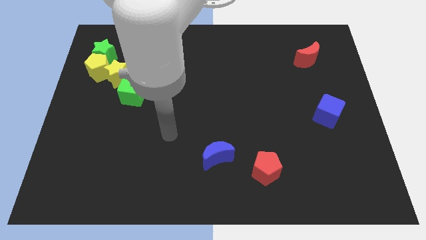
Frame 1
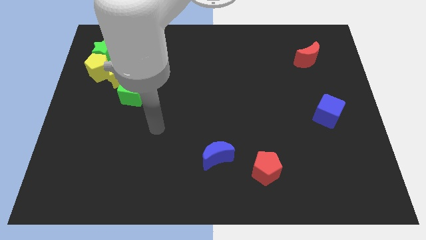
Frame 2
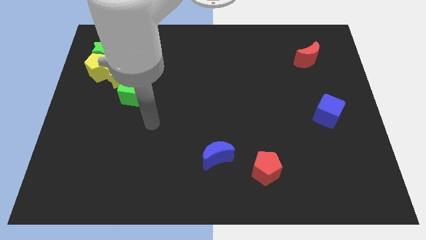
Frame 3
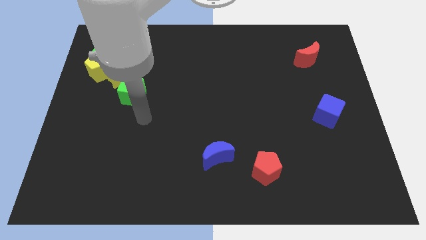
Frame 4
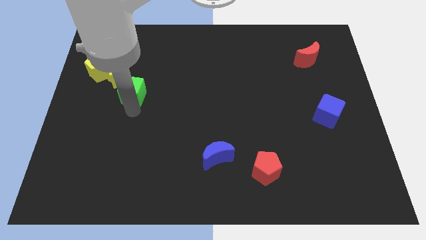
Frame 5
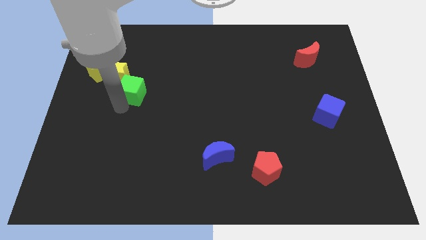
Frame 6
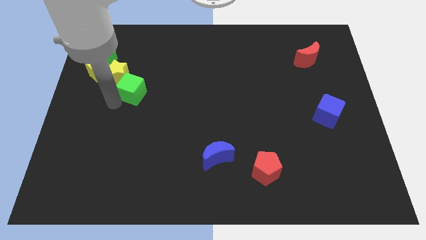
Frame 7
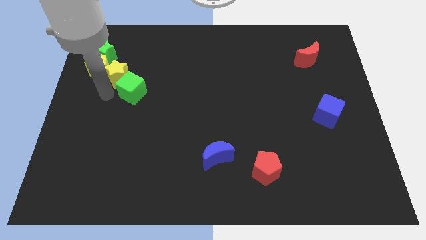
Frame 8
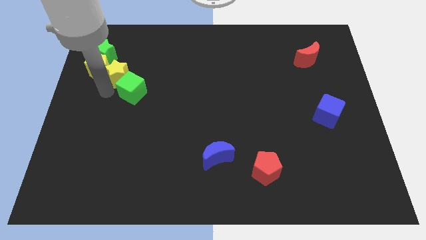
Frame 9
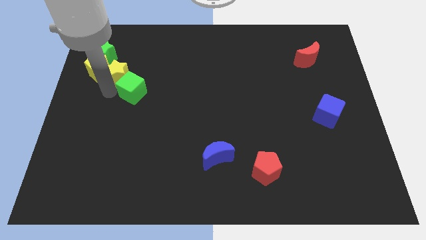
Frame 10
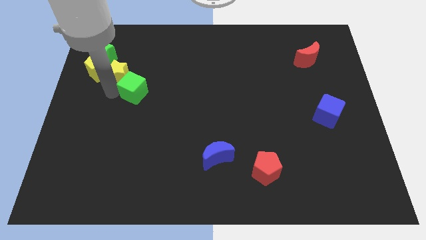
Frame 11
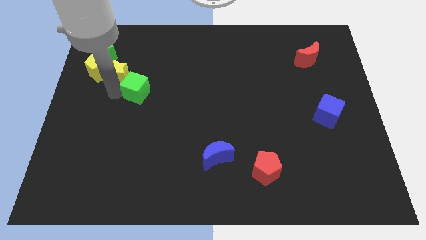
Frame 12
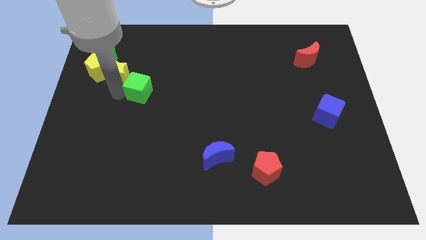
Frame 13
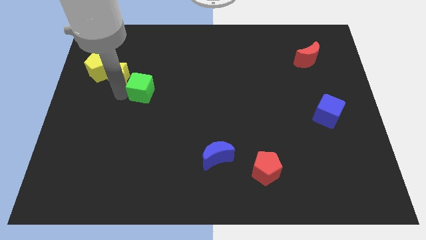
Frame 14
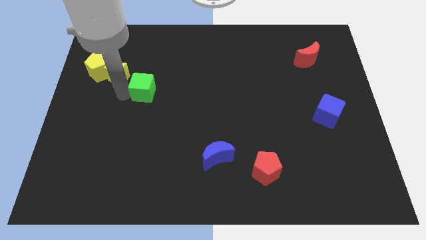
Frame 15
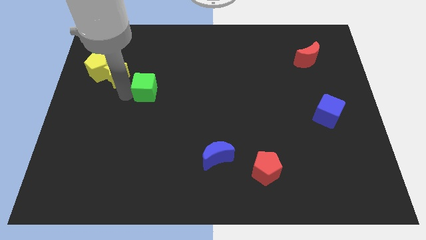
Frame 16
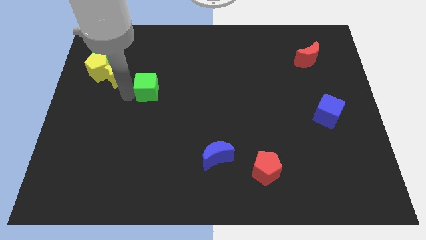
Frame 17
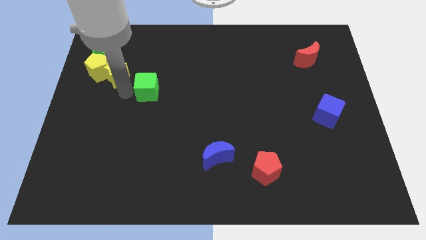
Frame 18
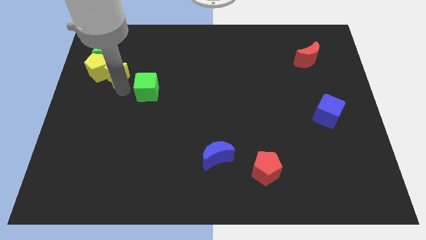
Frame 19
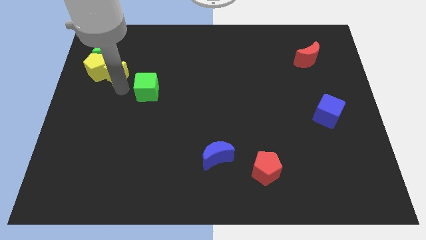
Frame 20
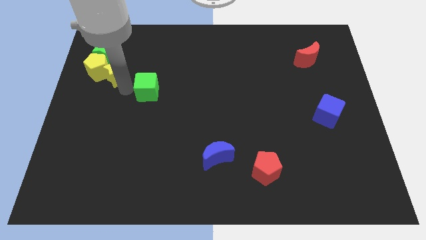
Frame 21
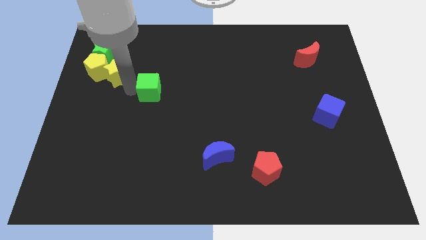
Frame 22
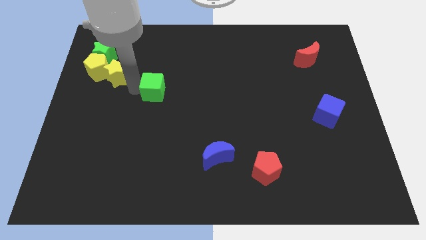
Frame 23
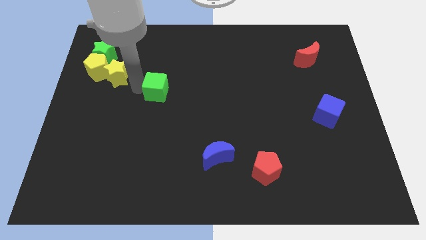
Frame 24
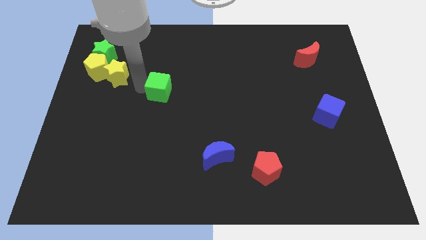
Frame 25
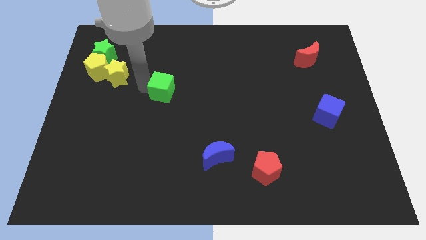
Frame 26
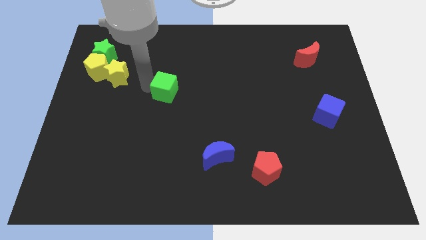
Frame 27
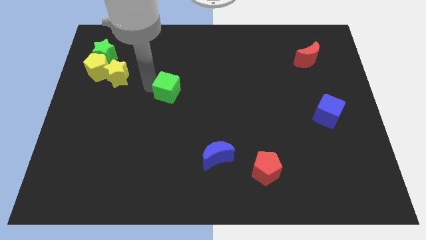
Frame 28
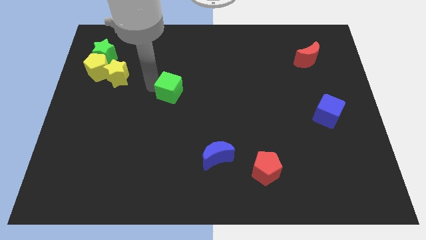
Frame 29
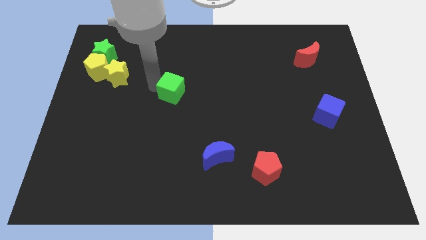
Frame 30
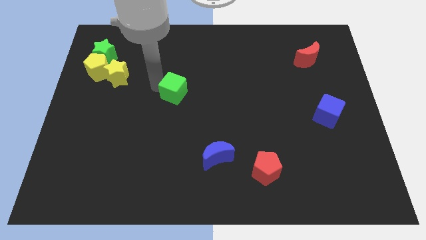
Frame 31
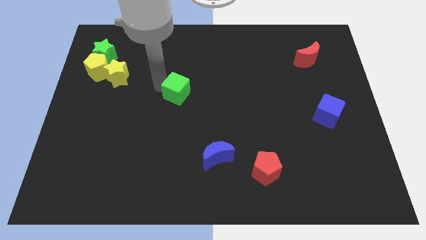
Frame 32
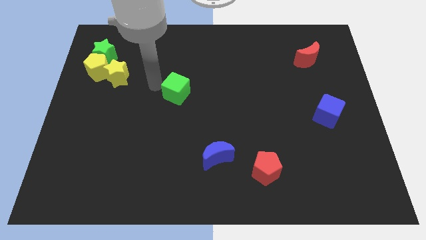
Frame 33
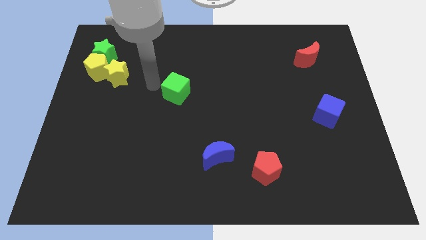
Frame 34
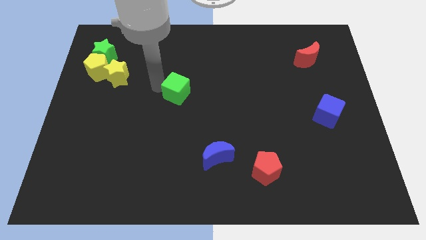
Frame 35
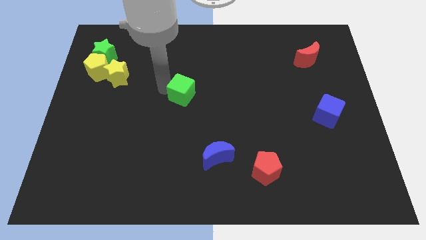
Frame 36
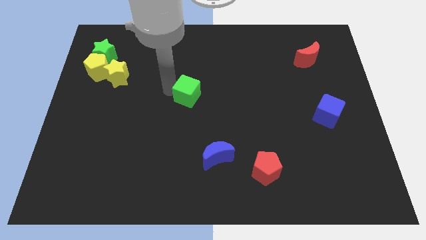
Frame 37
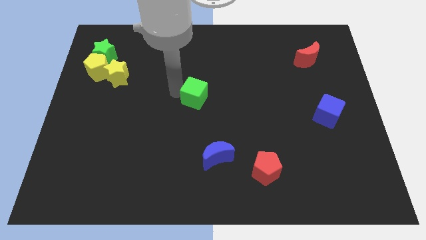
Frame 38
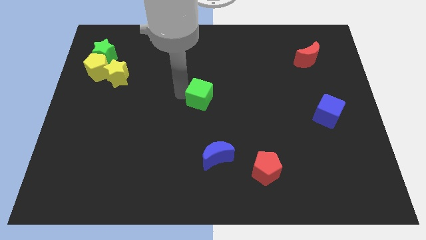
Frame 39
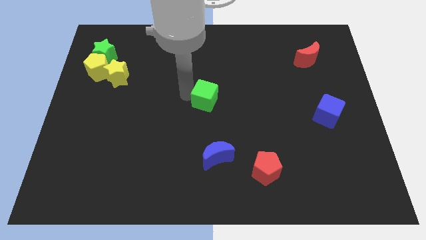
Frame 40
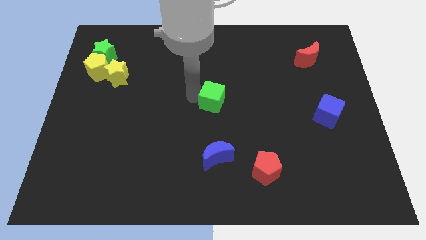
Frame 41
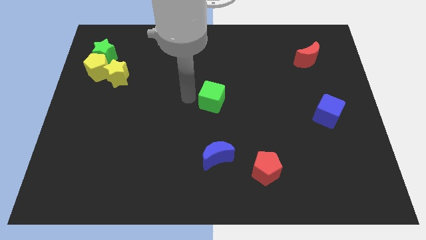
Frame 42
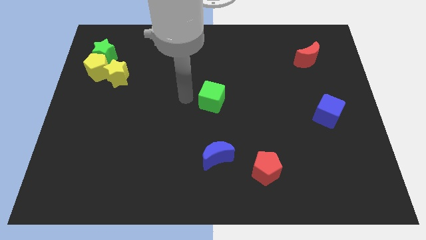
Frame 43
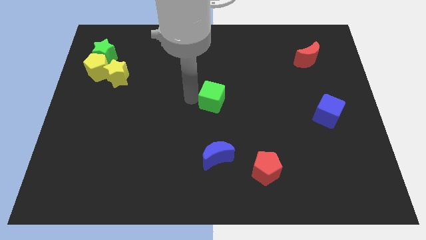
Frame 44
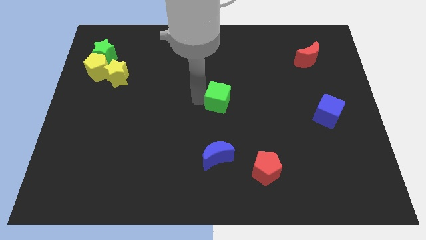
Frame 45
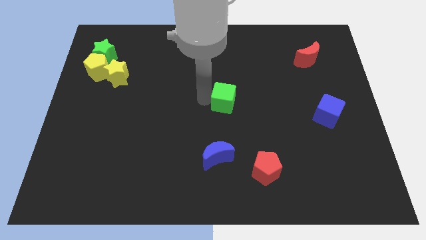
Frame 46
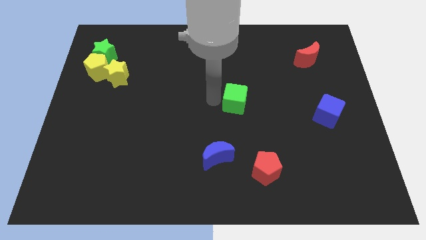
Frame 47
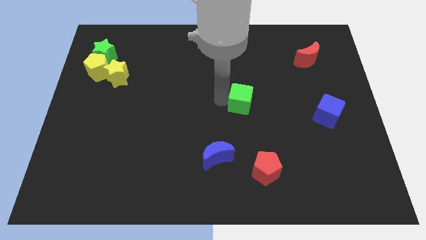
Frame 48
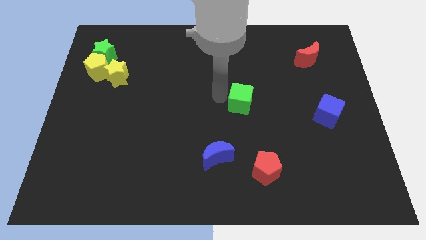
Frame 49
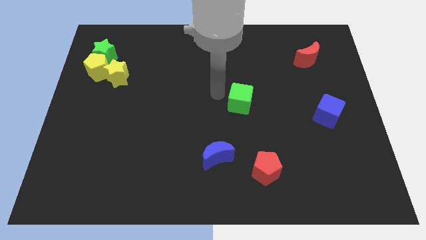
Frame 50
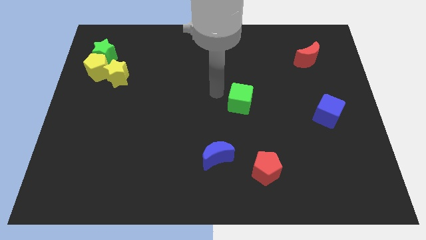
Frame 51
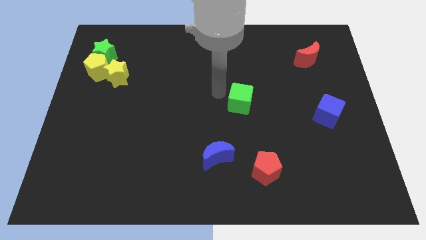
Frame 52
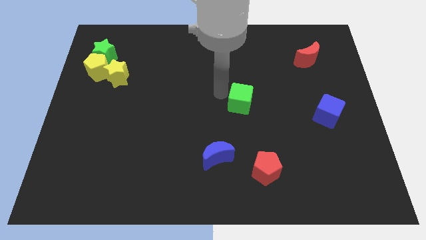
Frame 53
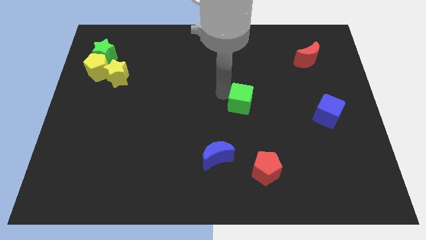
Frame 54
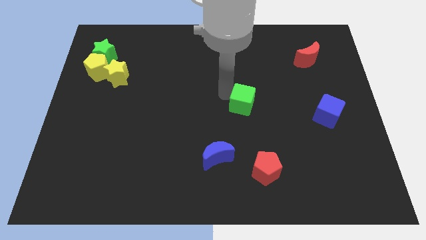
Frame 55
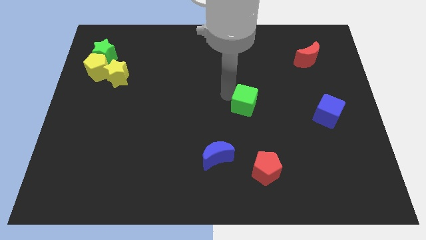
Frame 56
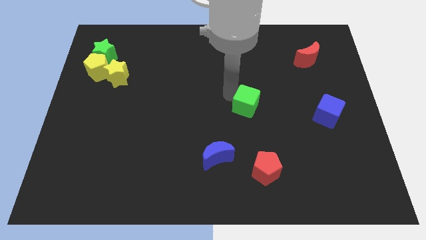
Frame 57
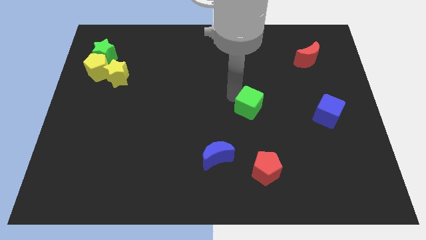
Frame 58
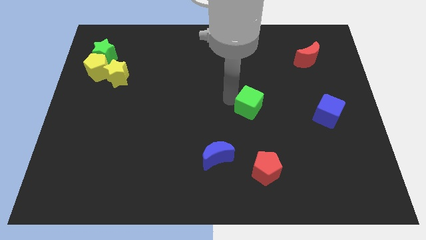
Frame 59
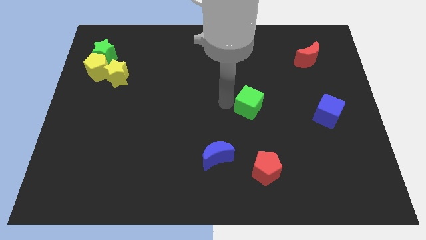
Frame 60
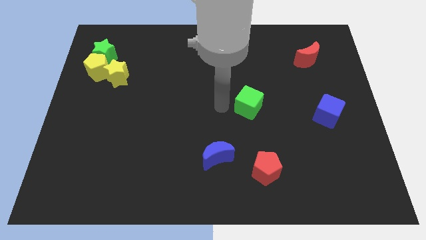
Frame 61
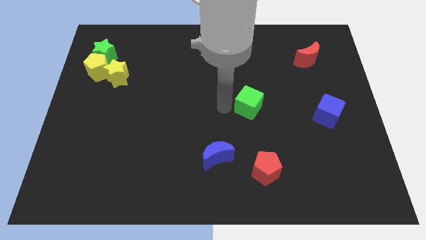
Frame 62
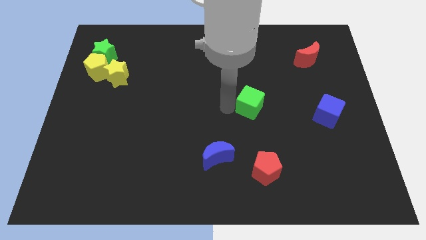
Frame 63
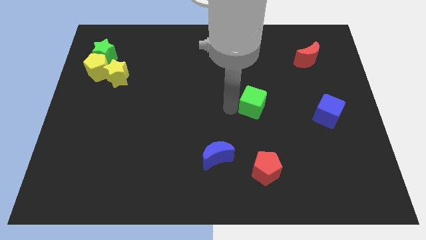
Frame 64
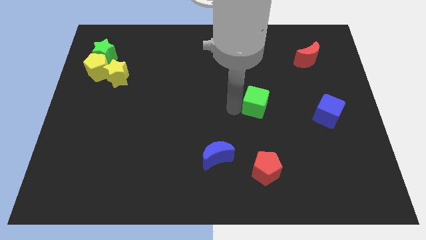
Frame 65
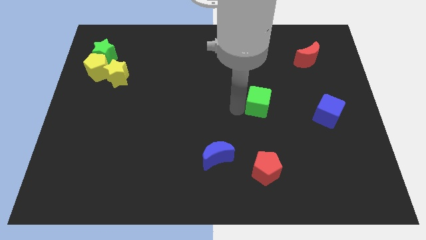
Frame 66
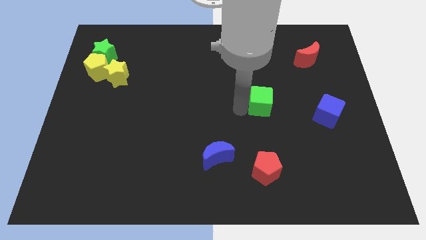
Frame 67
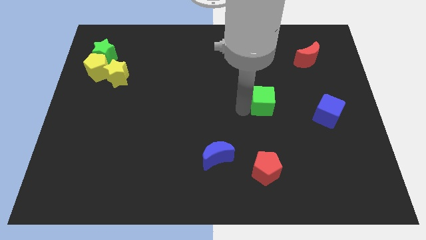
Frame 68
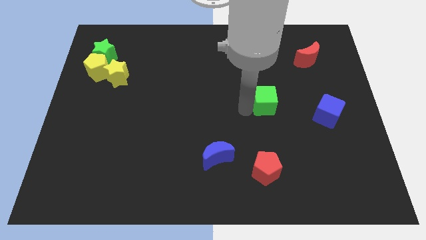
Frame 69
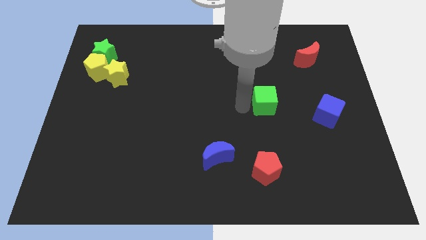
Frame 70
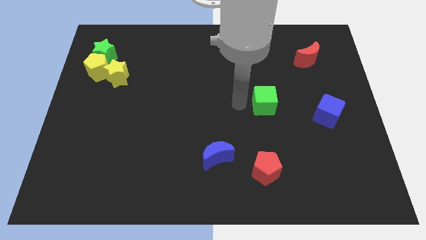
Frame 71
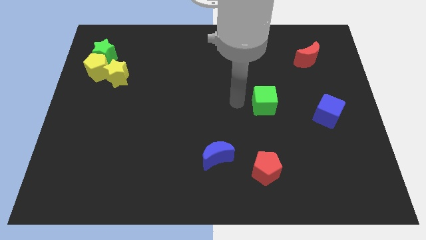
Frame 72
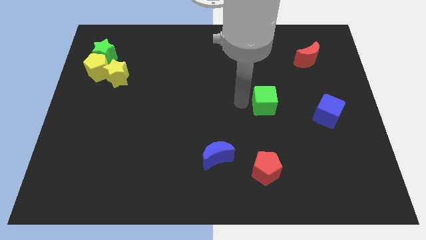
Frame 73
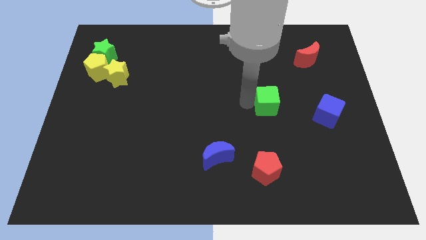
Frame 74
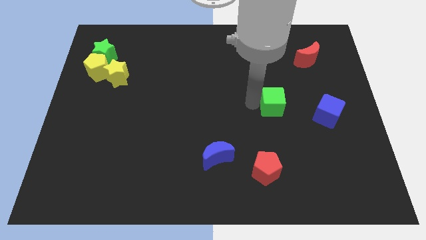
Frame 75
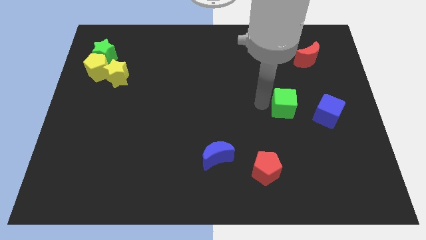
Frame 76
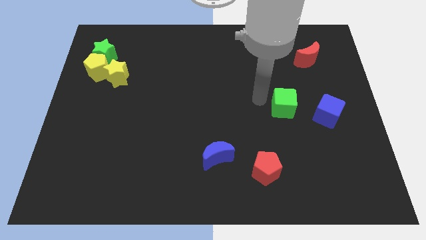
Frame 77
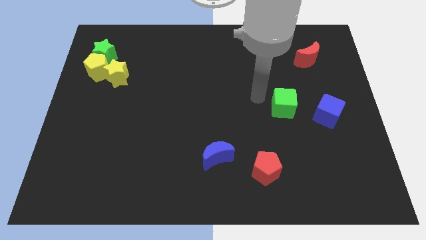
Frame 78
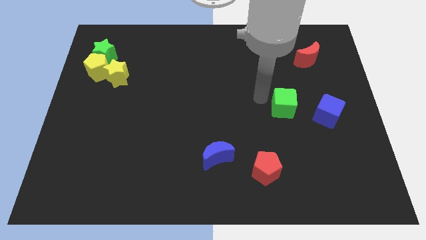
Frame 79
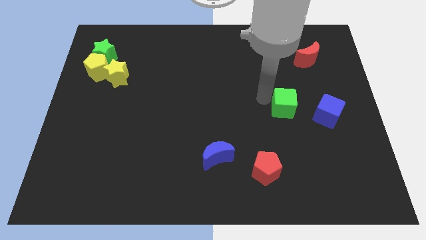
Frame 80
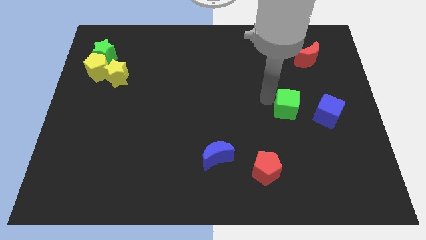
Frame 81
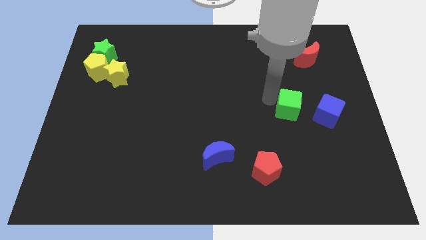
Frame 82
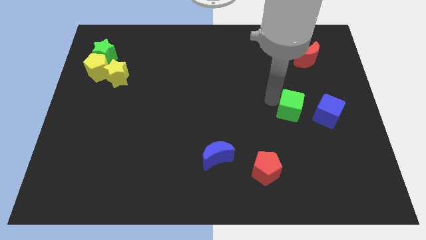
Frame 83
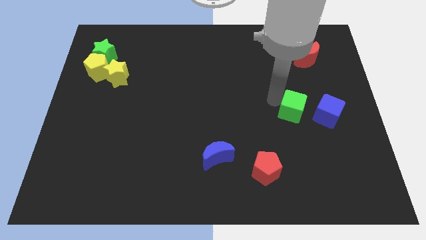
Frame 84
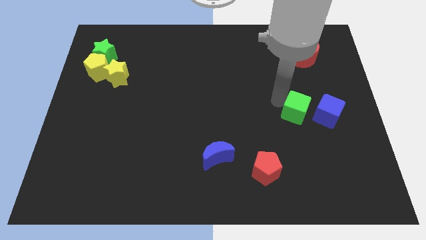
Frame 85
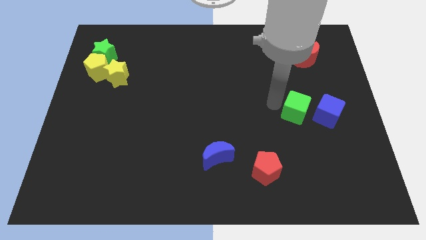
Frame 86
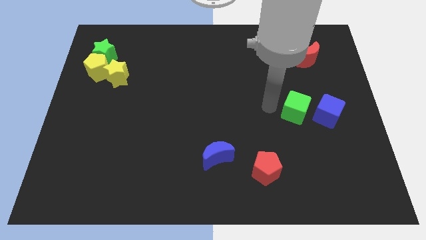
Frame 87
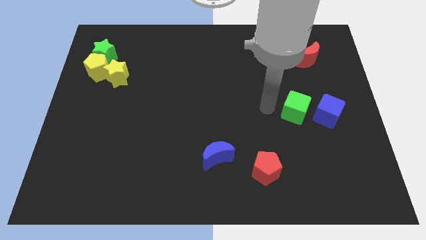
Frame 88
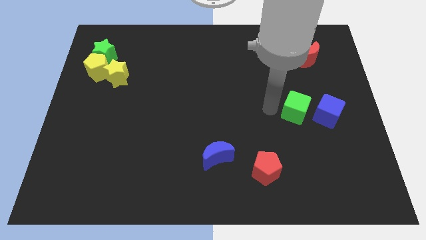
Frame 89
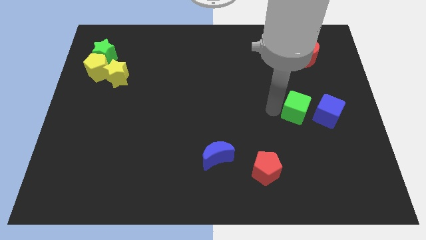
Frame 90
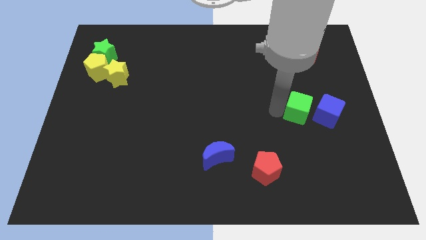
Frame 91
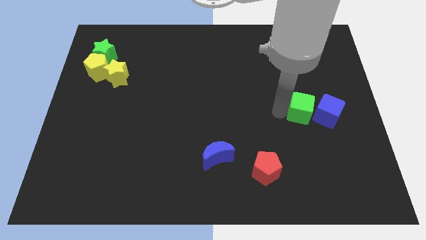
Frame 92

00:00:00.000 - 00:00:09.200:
put the green cube to the blue cube
